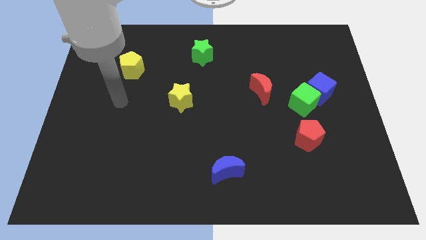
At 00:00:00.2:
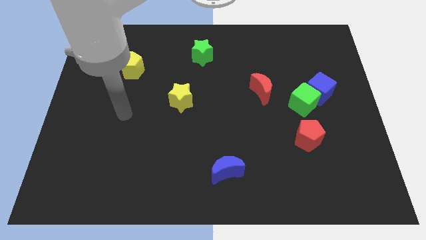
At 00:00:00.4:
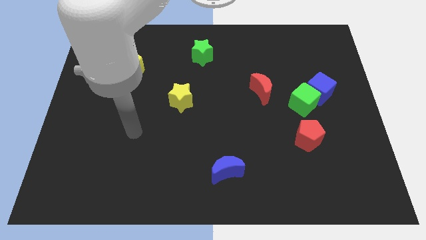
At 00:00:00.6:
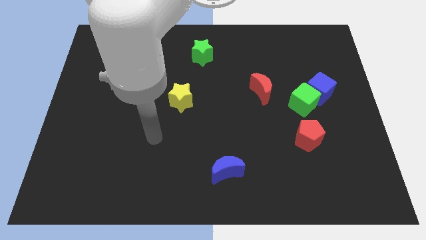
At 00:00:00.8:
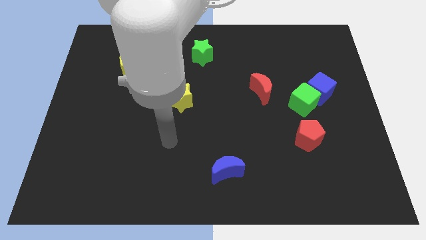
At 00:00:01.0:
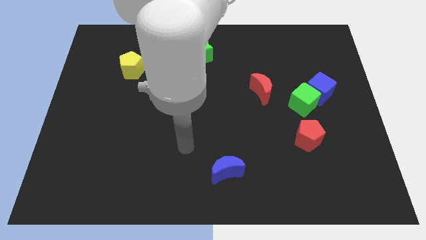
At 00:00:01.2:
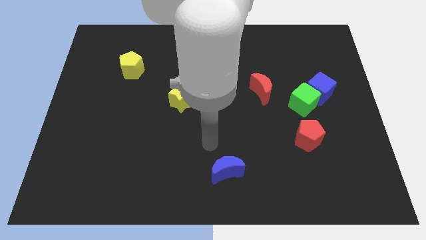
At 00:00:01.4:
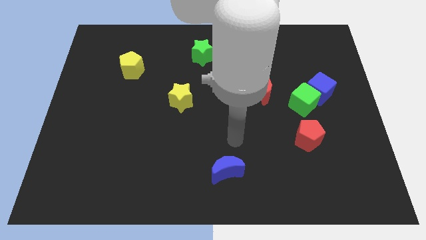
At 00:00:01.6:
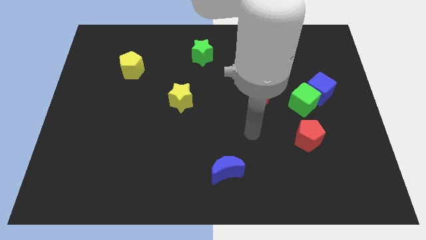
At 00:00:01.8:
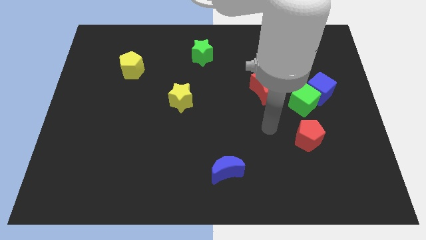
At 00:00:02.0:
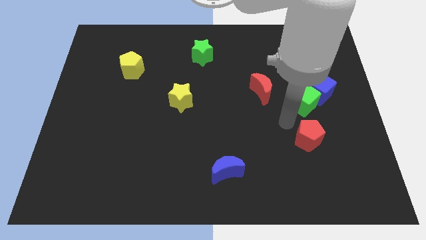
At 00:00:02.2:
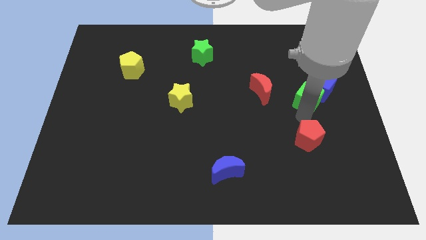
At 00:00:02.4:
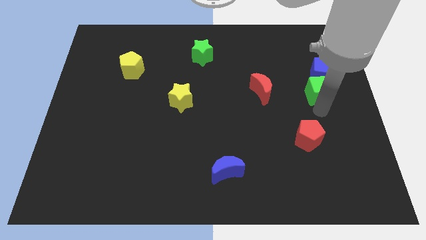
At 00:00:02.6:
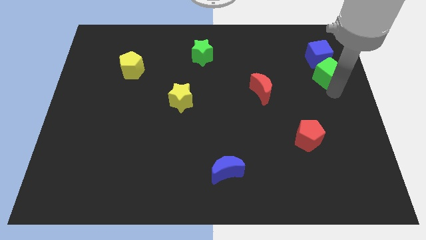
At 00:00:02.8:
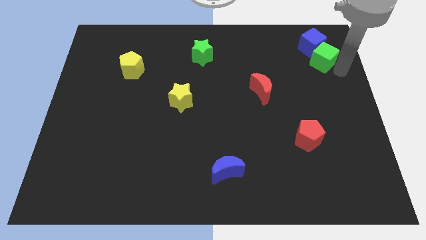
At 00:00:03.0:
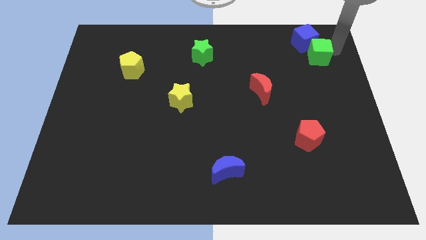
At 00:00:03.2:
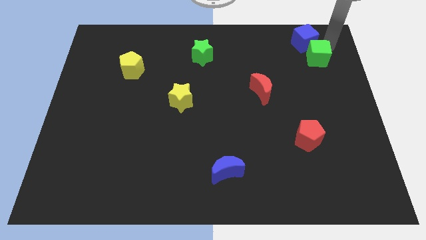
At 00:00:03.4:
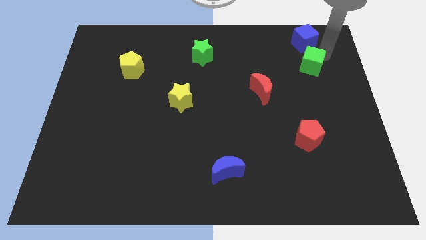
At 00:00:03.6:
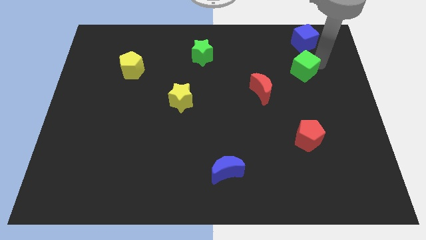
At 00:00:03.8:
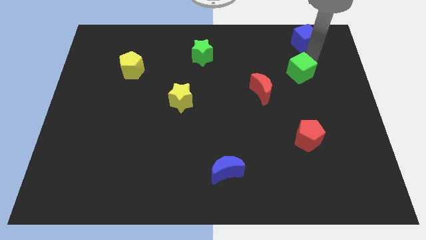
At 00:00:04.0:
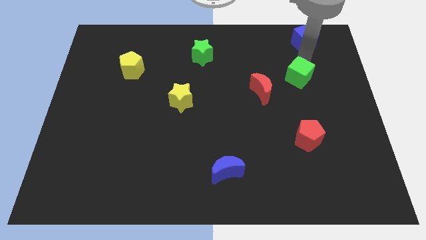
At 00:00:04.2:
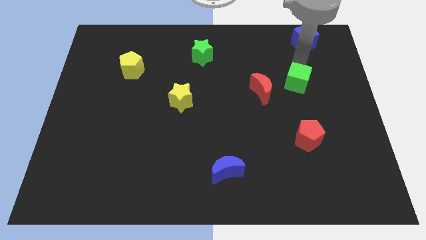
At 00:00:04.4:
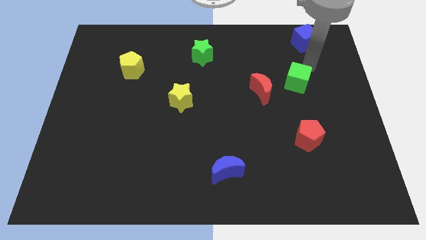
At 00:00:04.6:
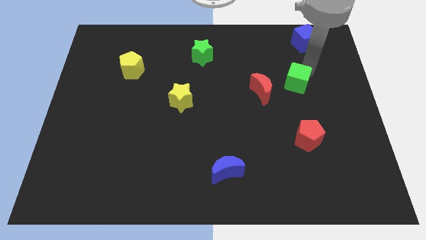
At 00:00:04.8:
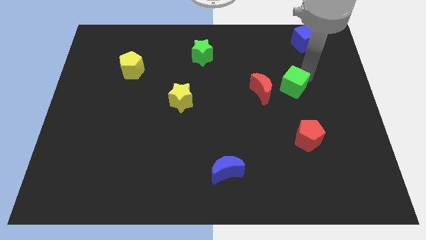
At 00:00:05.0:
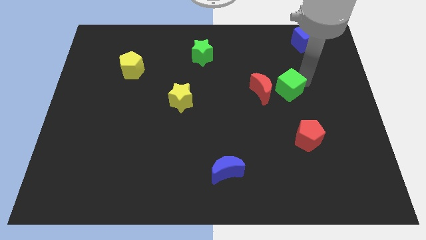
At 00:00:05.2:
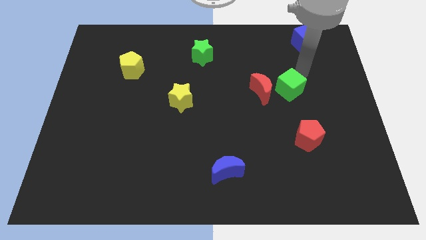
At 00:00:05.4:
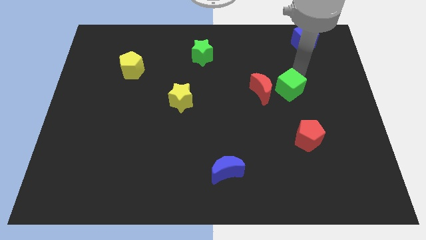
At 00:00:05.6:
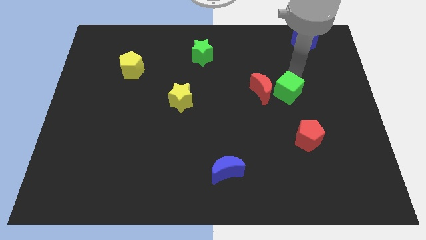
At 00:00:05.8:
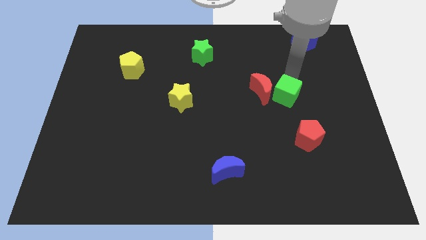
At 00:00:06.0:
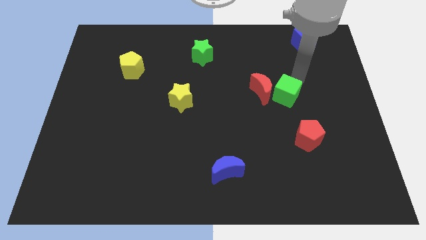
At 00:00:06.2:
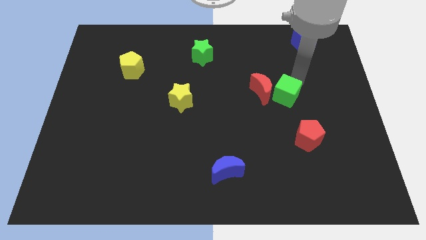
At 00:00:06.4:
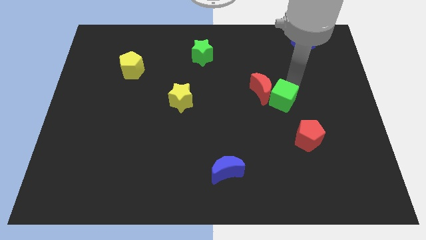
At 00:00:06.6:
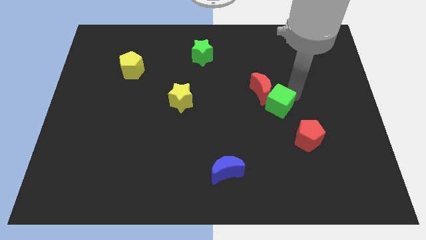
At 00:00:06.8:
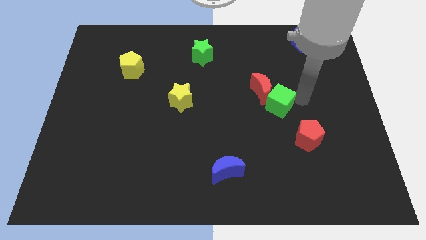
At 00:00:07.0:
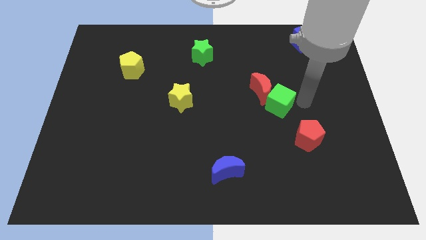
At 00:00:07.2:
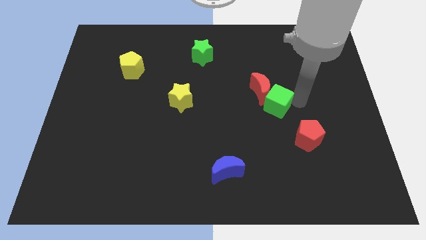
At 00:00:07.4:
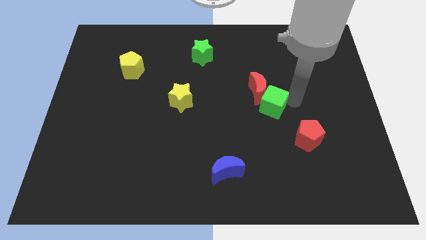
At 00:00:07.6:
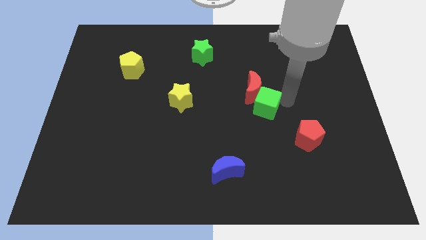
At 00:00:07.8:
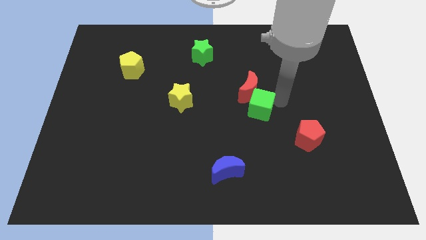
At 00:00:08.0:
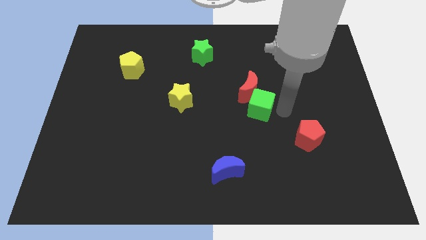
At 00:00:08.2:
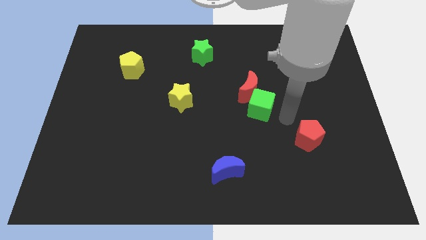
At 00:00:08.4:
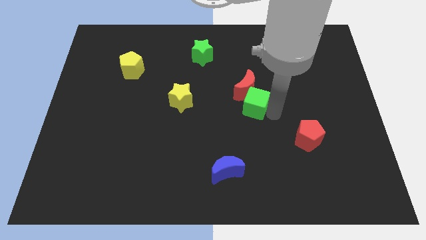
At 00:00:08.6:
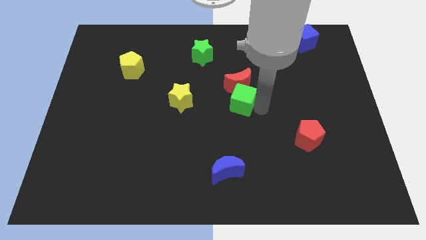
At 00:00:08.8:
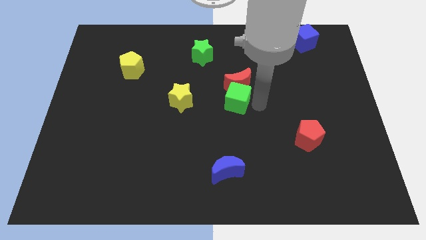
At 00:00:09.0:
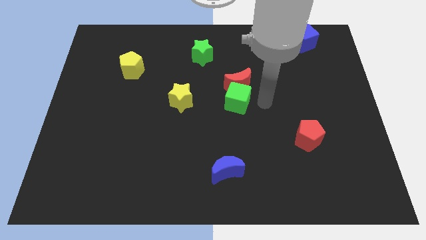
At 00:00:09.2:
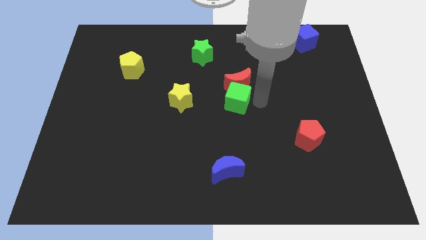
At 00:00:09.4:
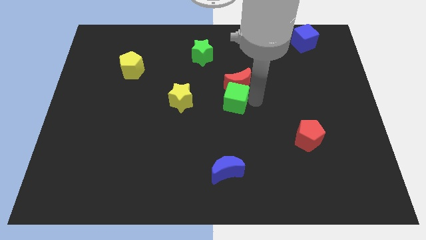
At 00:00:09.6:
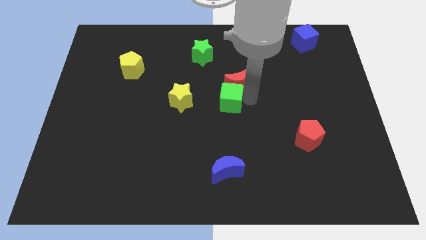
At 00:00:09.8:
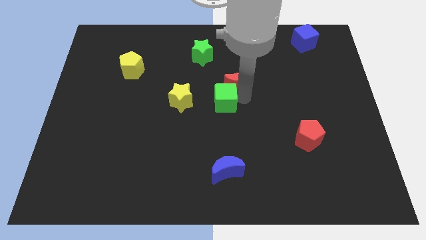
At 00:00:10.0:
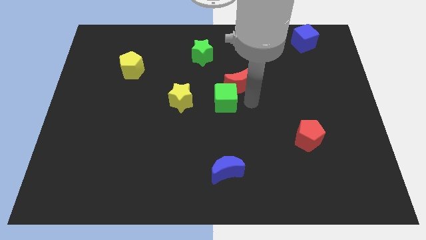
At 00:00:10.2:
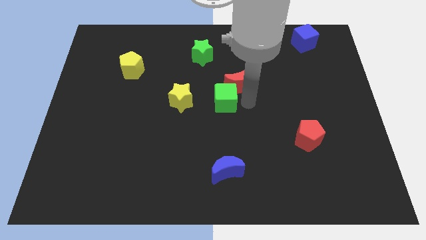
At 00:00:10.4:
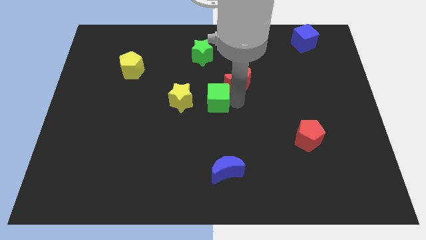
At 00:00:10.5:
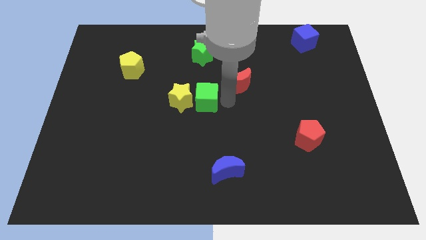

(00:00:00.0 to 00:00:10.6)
push the green cube close to the yellow star

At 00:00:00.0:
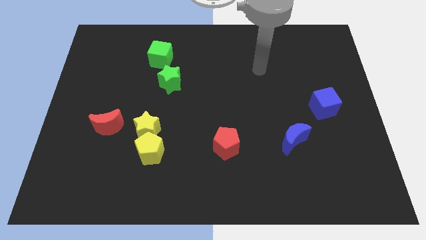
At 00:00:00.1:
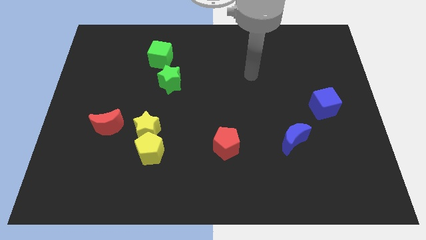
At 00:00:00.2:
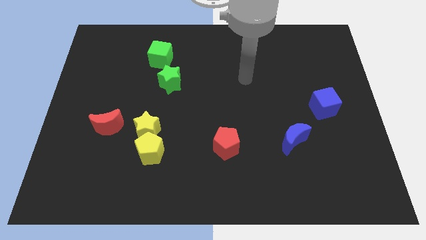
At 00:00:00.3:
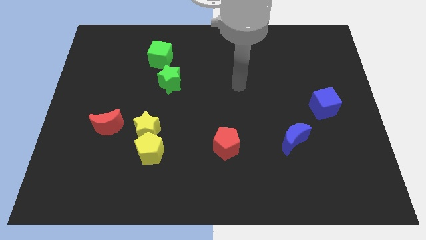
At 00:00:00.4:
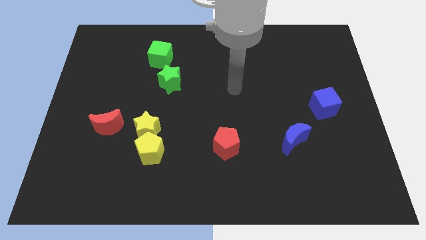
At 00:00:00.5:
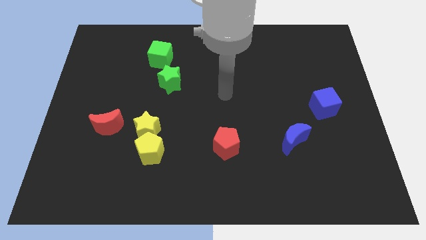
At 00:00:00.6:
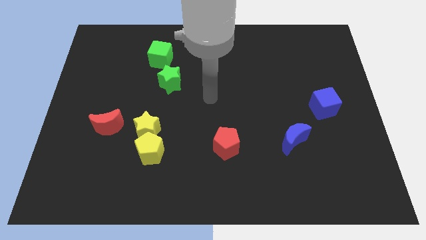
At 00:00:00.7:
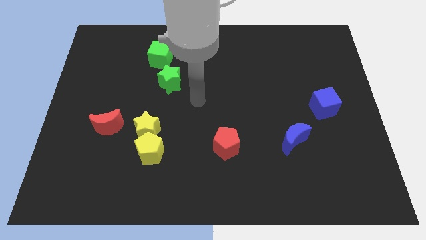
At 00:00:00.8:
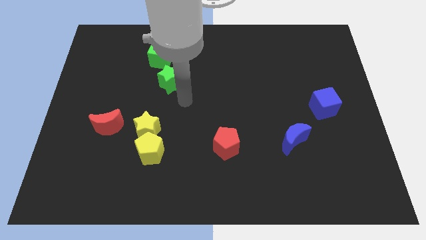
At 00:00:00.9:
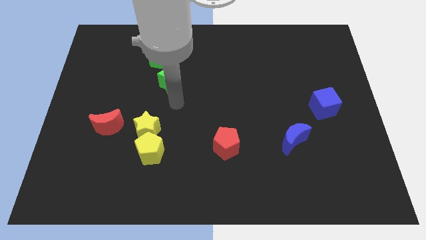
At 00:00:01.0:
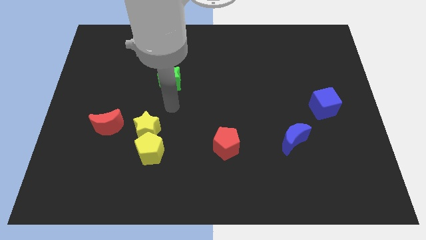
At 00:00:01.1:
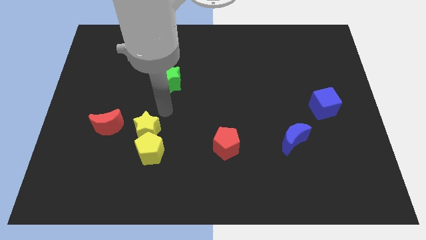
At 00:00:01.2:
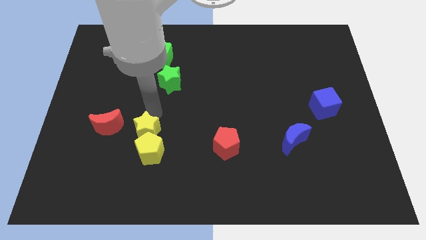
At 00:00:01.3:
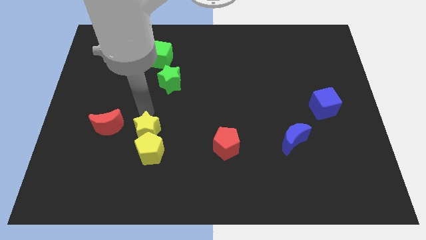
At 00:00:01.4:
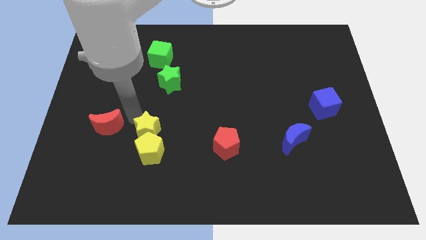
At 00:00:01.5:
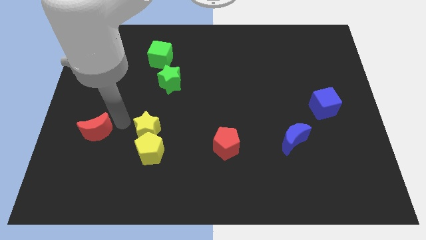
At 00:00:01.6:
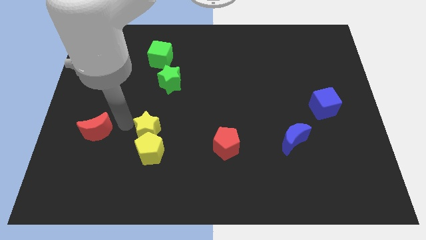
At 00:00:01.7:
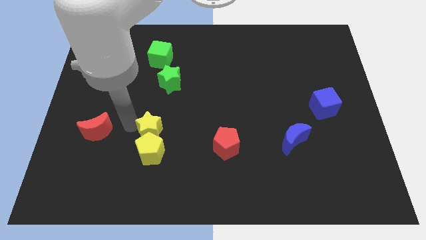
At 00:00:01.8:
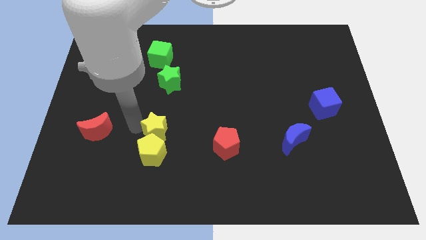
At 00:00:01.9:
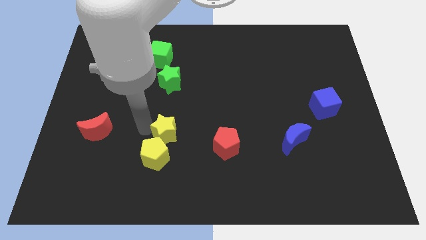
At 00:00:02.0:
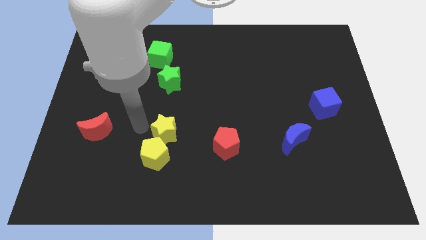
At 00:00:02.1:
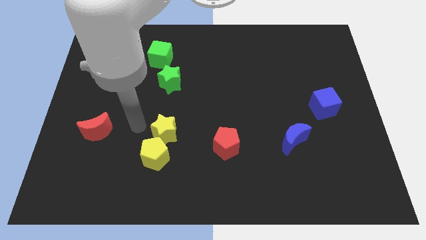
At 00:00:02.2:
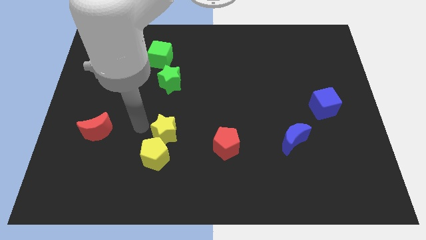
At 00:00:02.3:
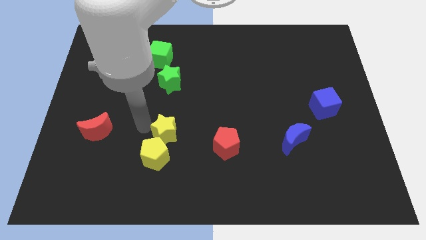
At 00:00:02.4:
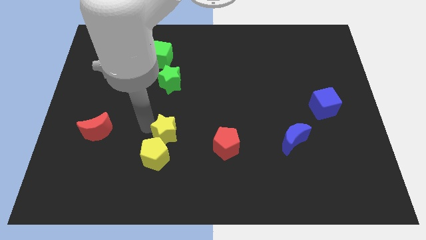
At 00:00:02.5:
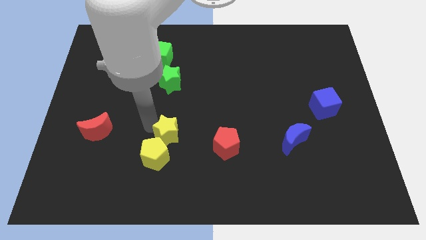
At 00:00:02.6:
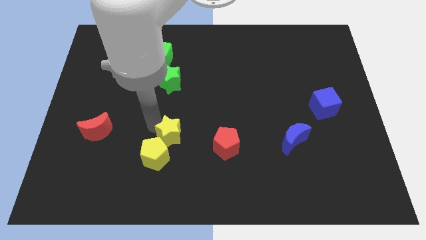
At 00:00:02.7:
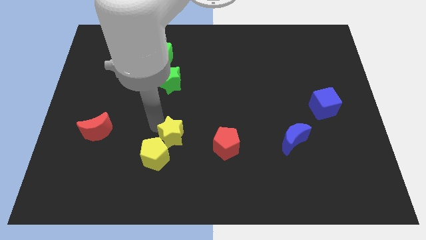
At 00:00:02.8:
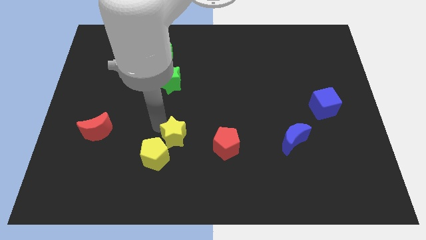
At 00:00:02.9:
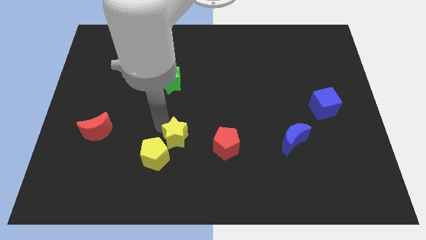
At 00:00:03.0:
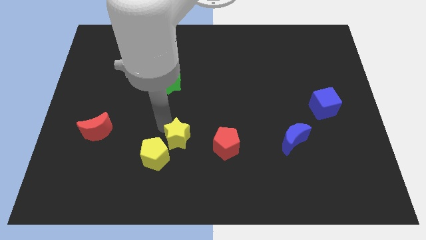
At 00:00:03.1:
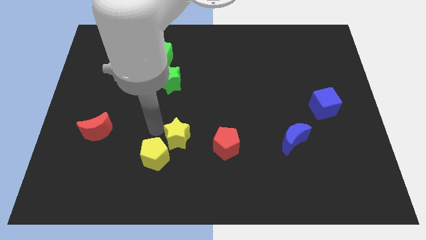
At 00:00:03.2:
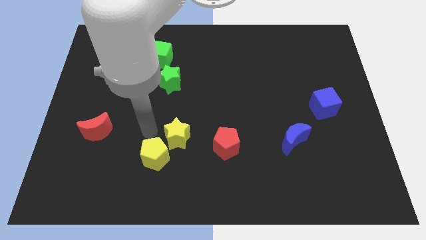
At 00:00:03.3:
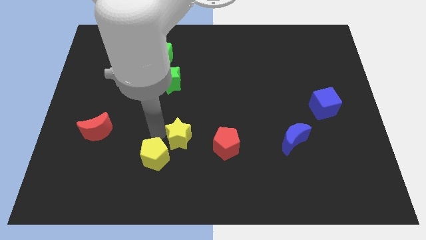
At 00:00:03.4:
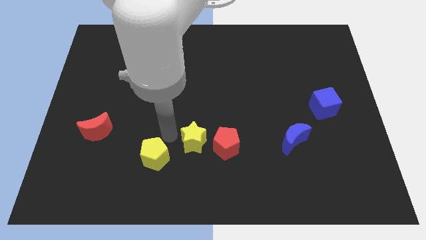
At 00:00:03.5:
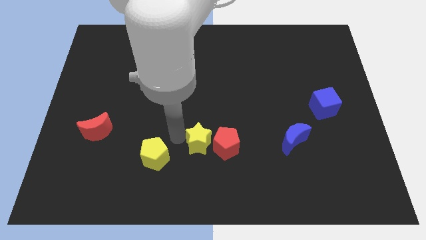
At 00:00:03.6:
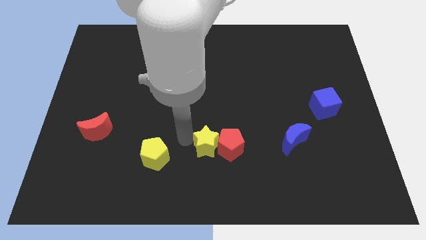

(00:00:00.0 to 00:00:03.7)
slide the yellow star next to the red pentagon
